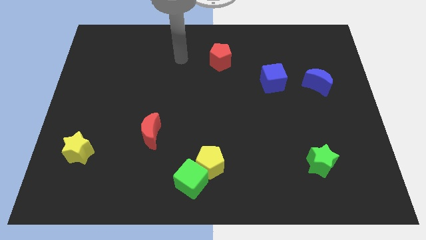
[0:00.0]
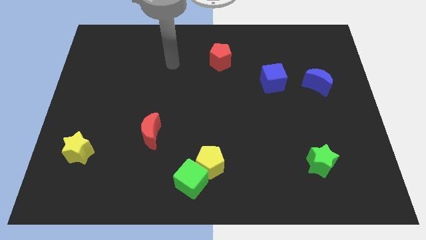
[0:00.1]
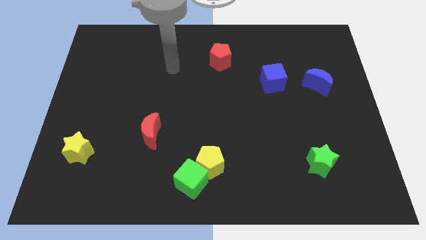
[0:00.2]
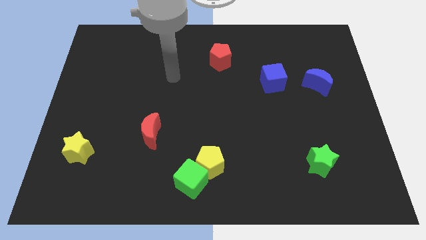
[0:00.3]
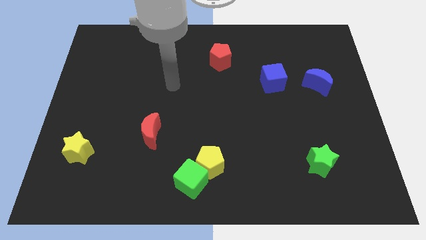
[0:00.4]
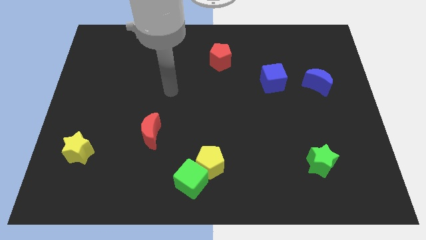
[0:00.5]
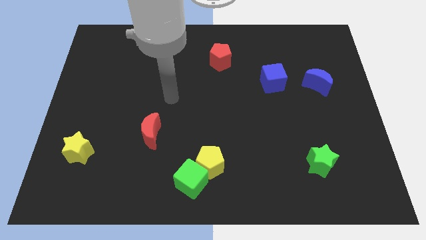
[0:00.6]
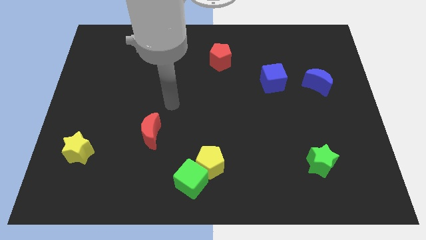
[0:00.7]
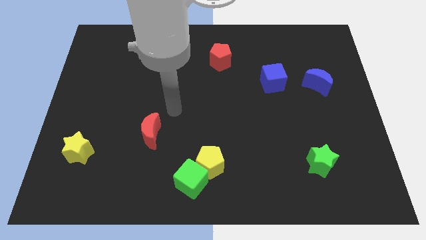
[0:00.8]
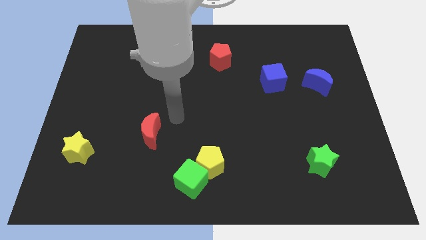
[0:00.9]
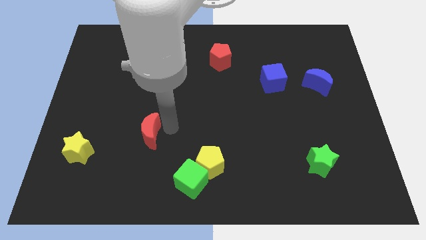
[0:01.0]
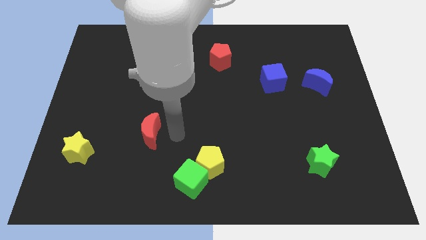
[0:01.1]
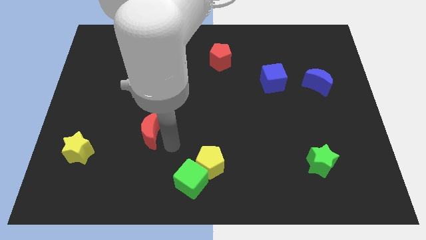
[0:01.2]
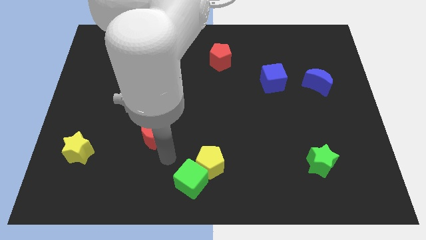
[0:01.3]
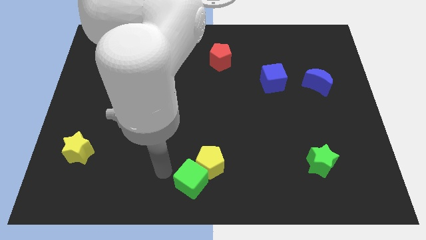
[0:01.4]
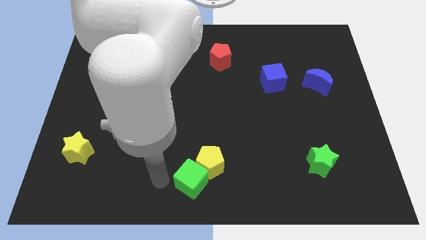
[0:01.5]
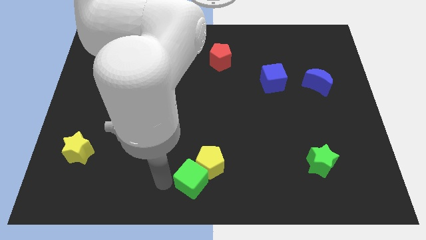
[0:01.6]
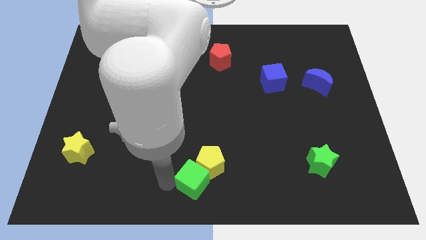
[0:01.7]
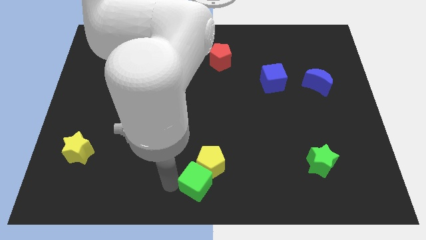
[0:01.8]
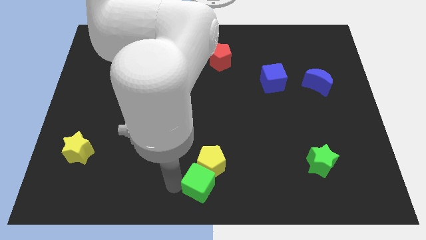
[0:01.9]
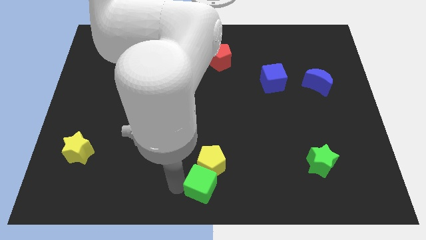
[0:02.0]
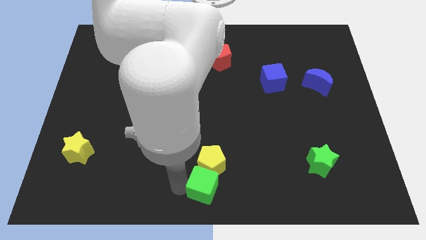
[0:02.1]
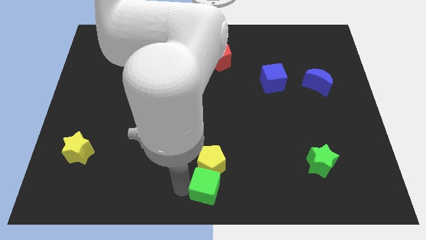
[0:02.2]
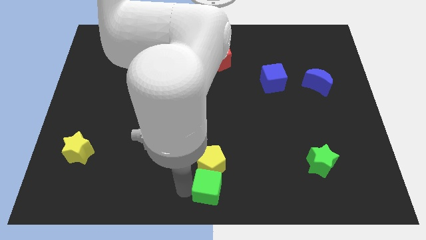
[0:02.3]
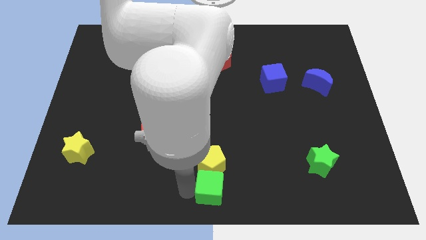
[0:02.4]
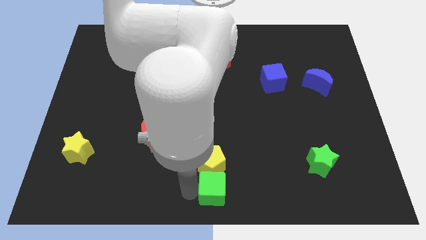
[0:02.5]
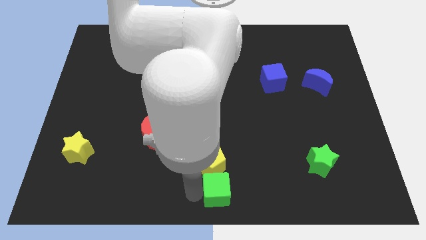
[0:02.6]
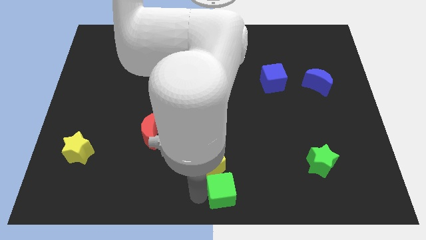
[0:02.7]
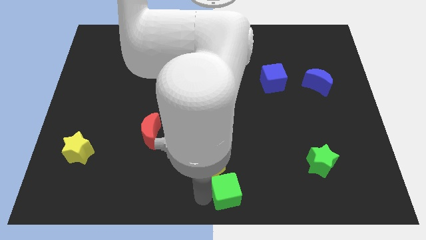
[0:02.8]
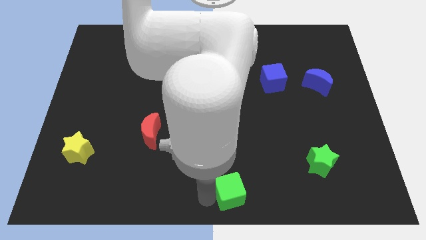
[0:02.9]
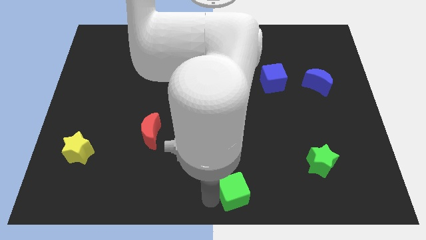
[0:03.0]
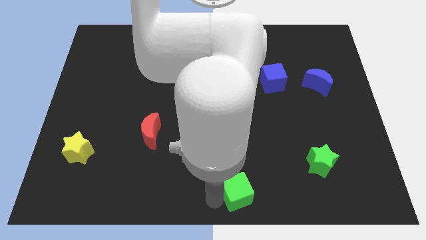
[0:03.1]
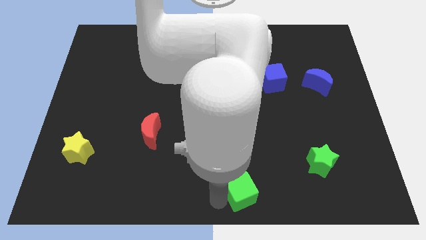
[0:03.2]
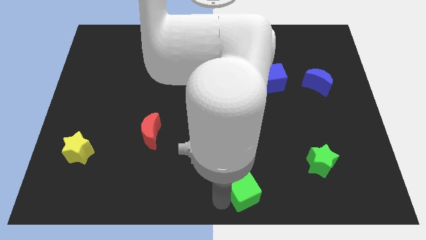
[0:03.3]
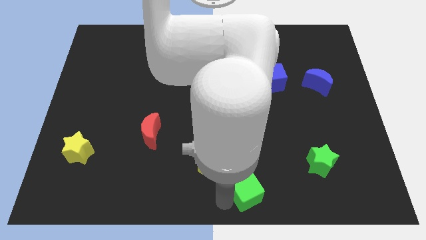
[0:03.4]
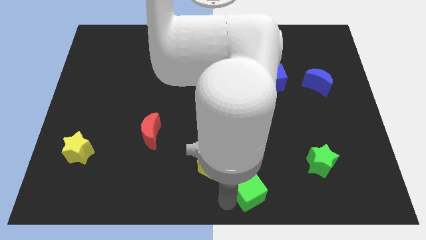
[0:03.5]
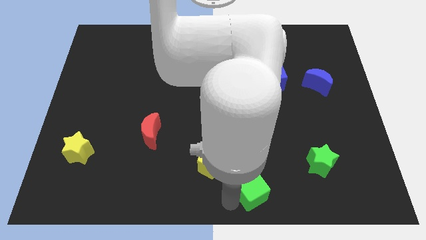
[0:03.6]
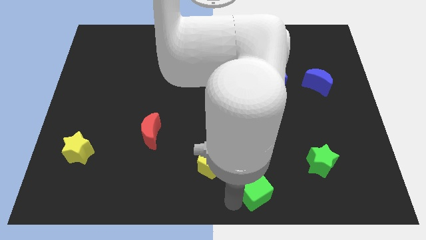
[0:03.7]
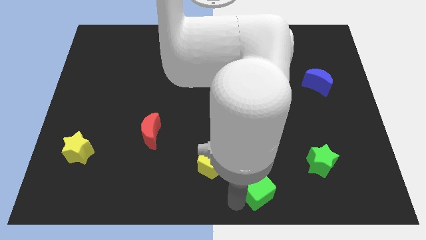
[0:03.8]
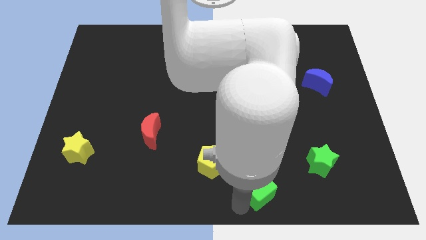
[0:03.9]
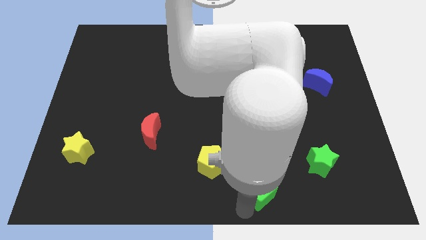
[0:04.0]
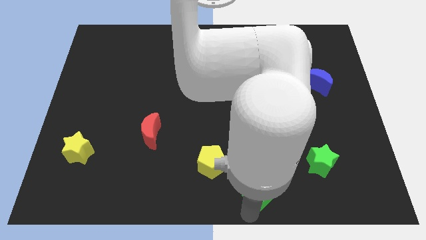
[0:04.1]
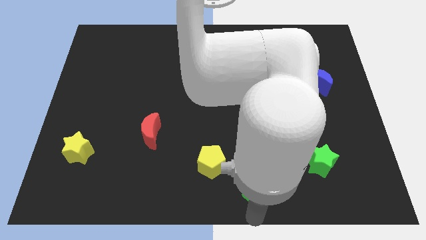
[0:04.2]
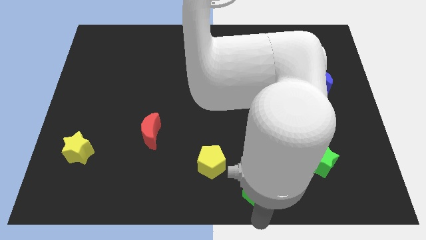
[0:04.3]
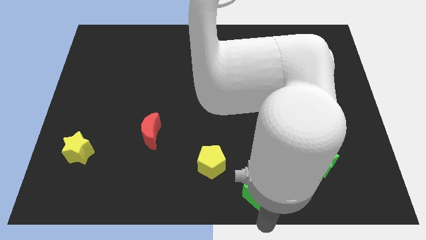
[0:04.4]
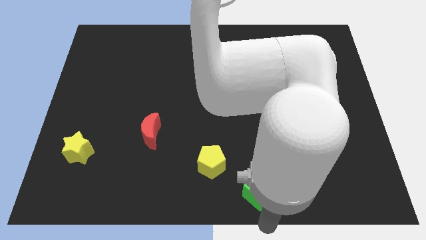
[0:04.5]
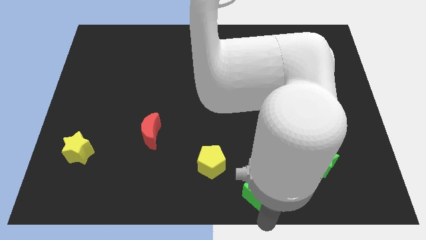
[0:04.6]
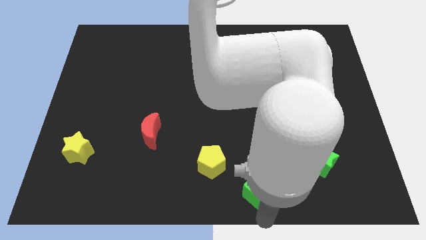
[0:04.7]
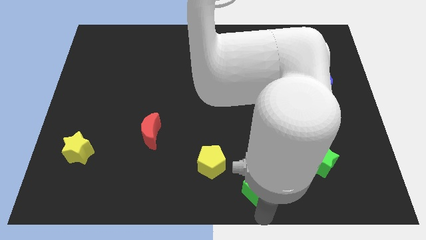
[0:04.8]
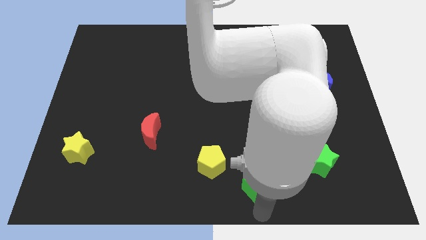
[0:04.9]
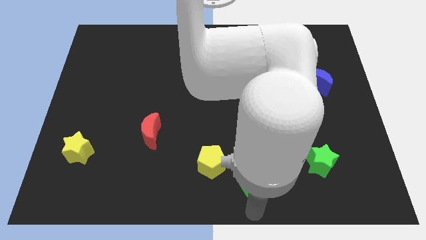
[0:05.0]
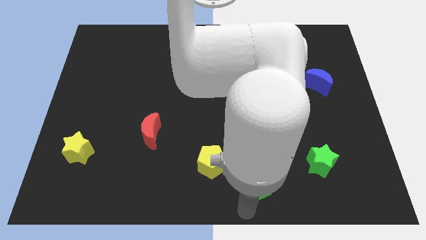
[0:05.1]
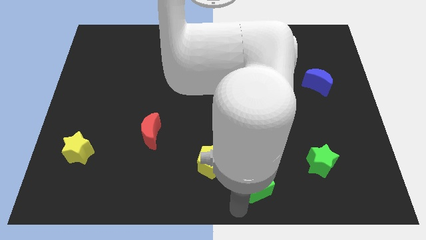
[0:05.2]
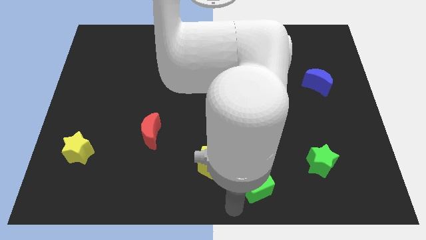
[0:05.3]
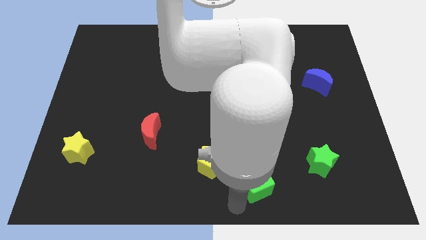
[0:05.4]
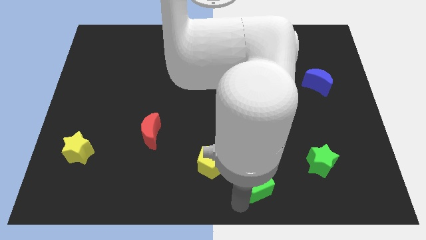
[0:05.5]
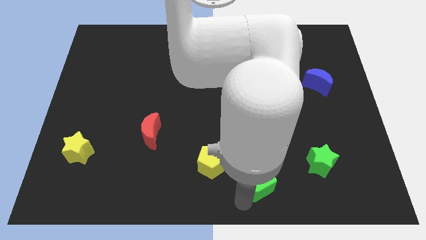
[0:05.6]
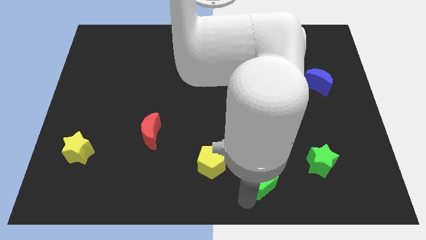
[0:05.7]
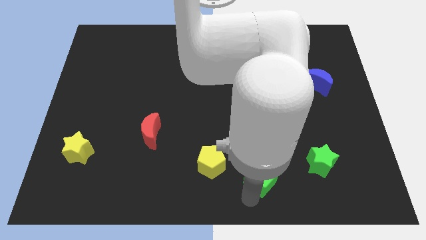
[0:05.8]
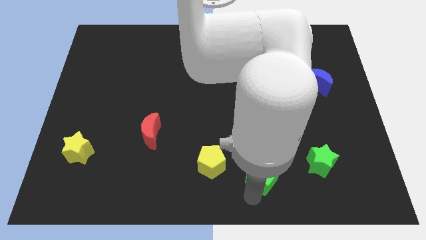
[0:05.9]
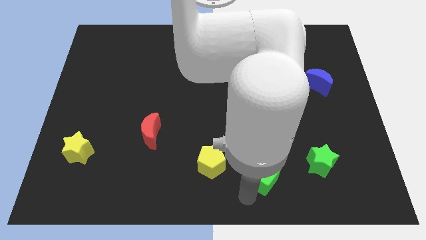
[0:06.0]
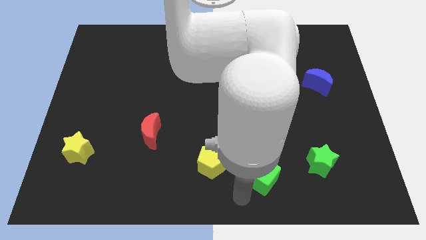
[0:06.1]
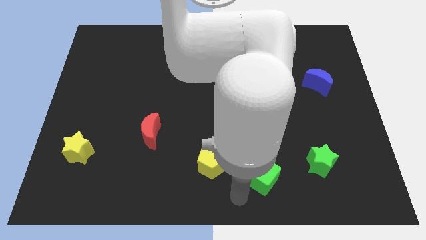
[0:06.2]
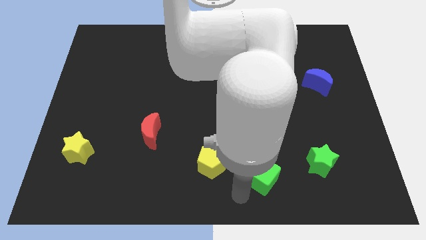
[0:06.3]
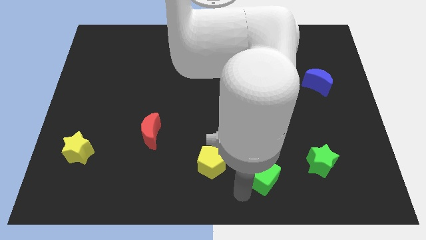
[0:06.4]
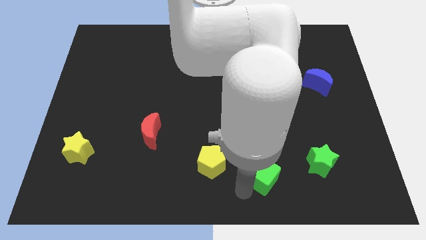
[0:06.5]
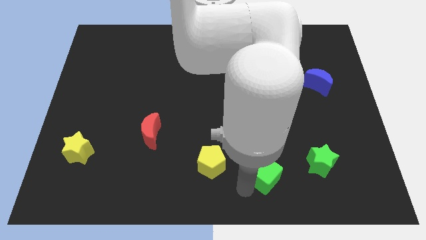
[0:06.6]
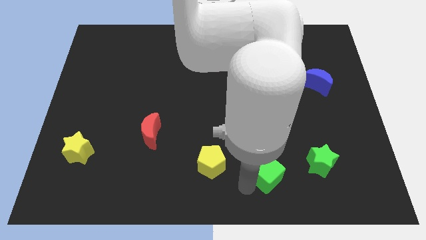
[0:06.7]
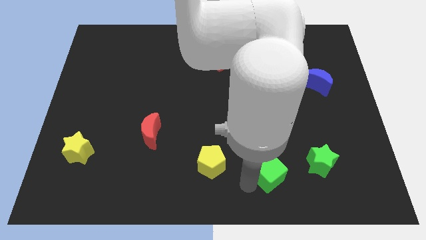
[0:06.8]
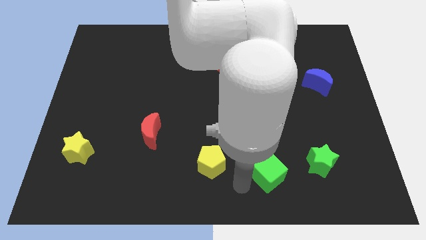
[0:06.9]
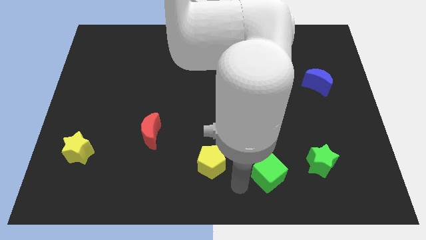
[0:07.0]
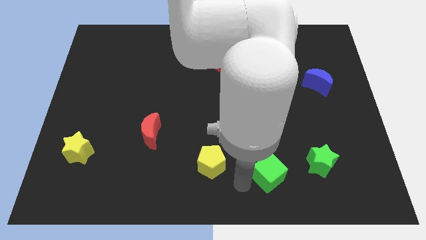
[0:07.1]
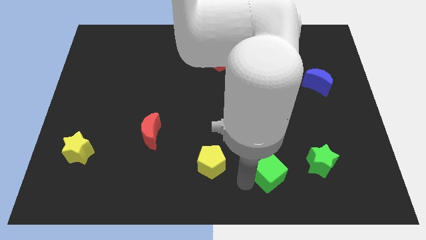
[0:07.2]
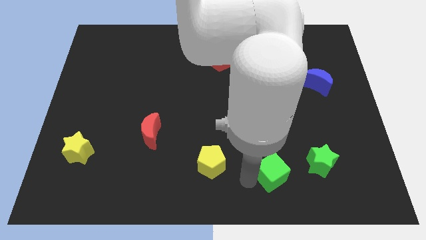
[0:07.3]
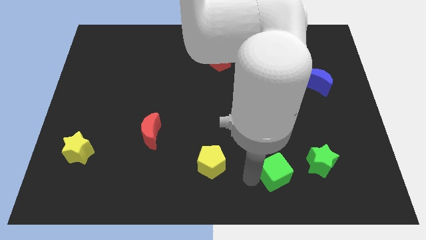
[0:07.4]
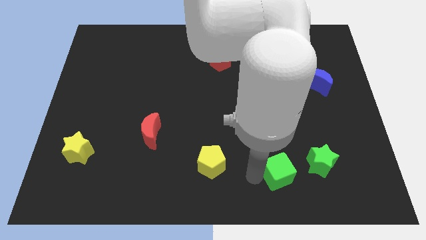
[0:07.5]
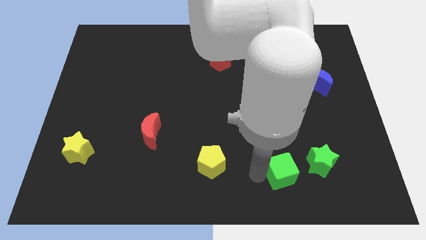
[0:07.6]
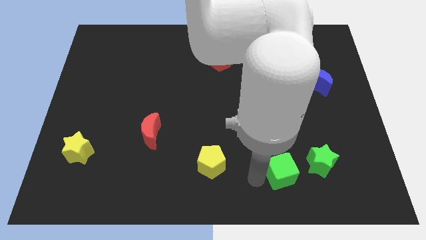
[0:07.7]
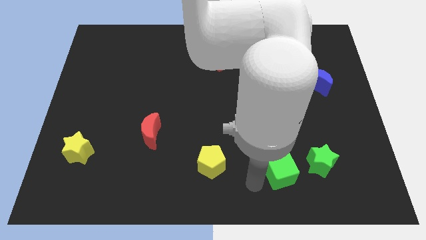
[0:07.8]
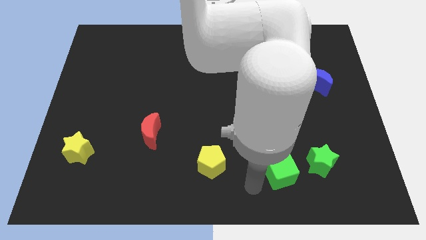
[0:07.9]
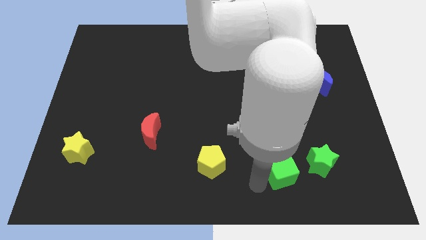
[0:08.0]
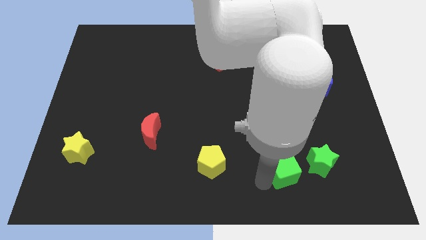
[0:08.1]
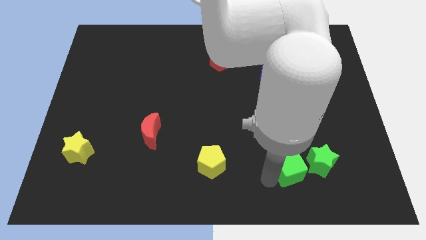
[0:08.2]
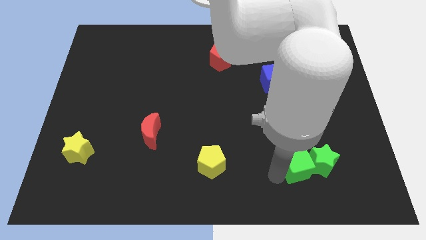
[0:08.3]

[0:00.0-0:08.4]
put the green cube towards the green star
